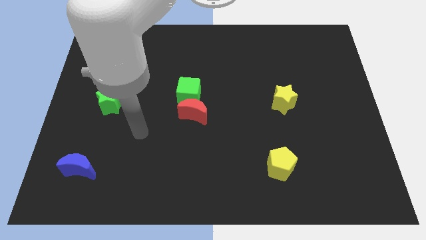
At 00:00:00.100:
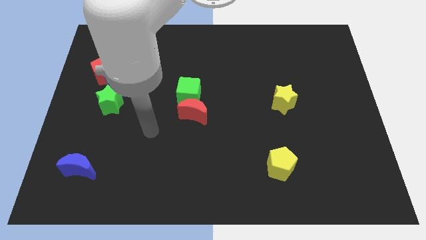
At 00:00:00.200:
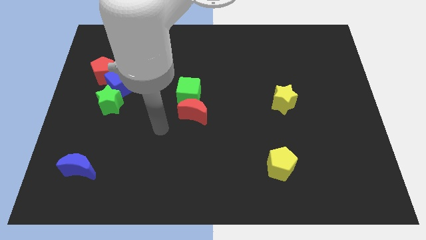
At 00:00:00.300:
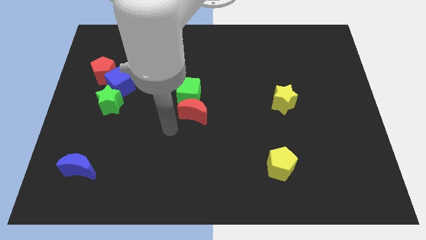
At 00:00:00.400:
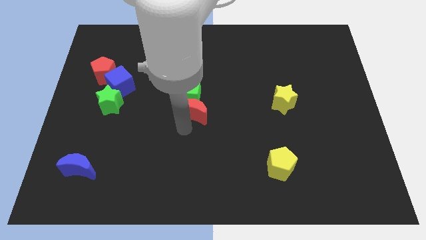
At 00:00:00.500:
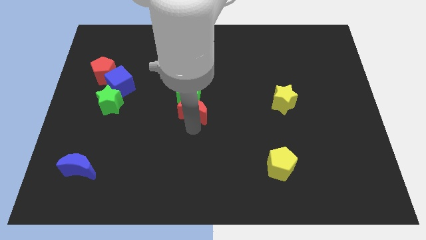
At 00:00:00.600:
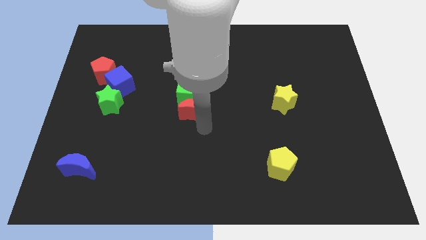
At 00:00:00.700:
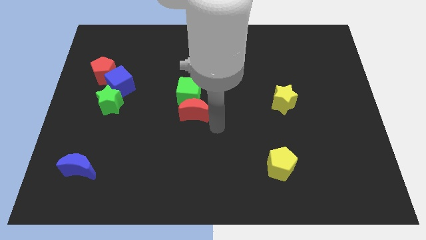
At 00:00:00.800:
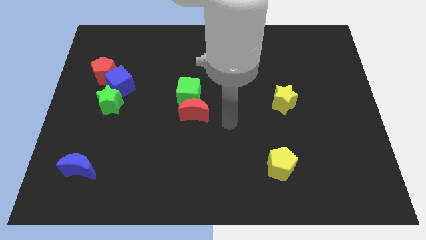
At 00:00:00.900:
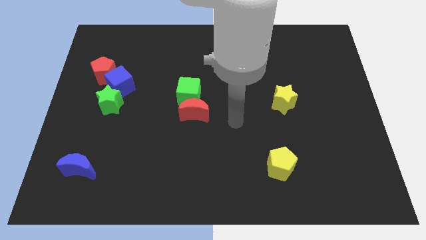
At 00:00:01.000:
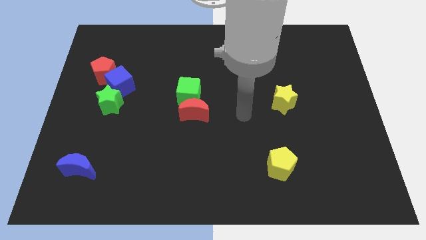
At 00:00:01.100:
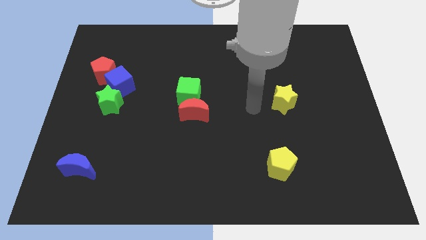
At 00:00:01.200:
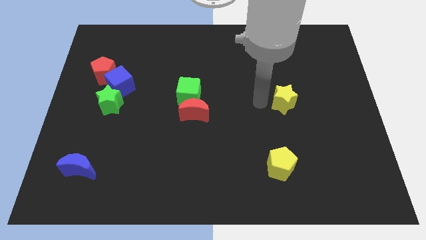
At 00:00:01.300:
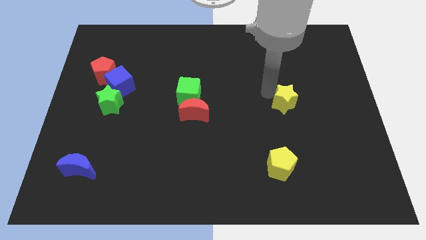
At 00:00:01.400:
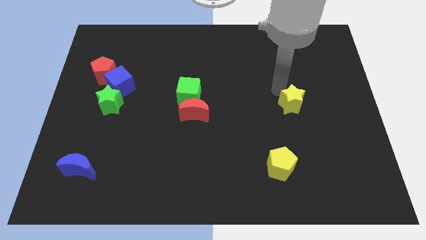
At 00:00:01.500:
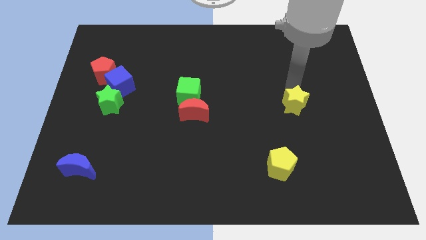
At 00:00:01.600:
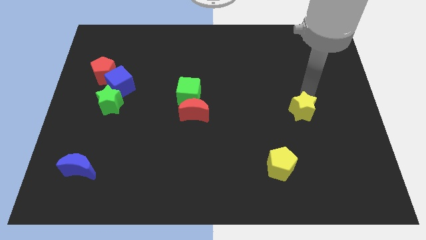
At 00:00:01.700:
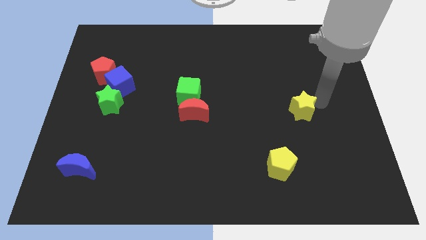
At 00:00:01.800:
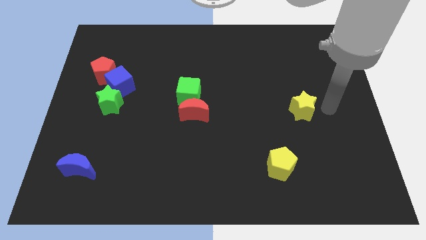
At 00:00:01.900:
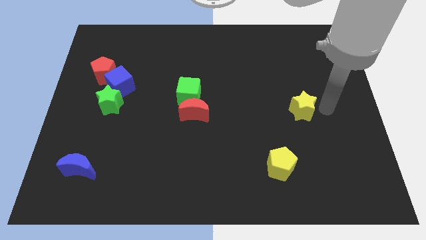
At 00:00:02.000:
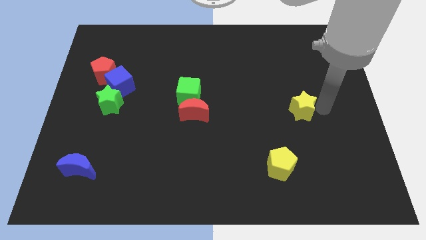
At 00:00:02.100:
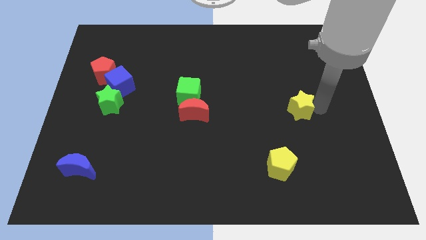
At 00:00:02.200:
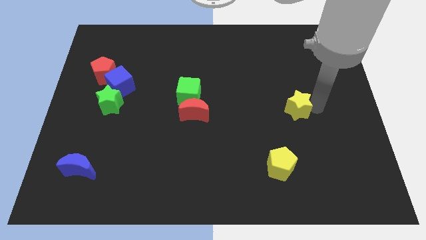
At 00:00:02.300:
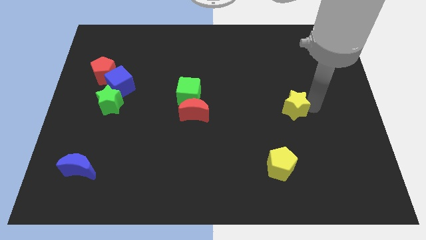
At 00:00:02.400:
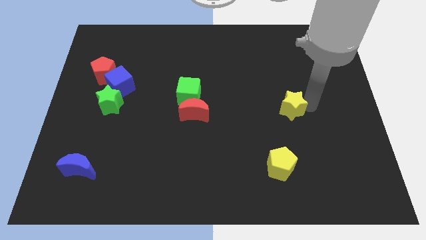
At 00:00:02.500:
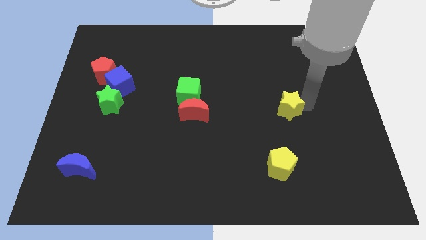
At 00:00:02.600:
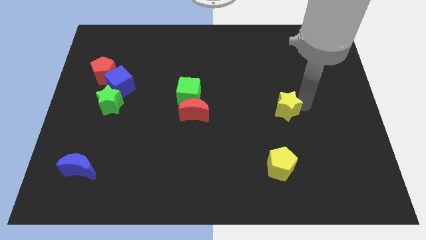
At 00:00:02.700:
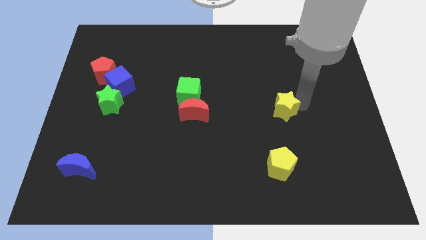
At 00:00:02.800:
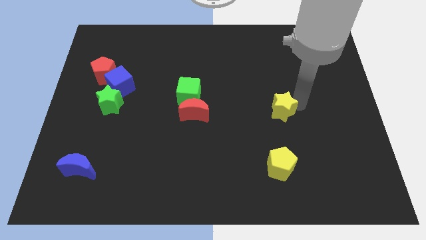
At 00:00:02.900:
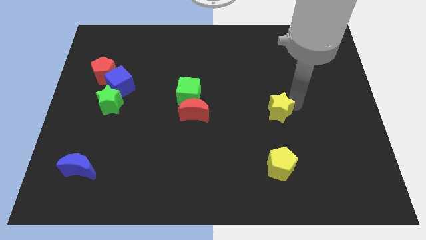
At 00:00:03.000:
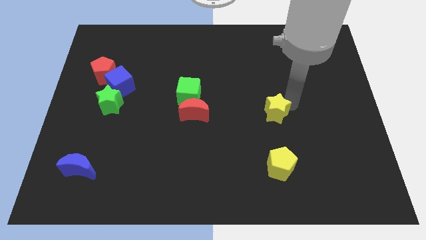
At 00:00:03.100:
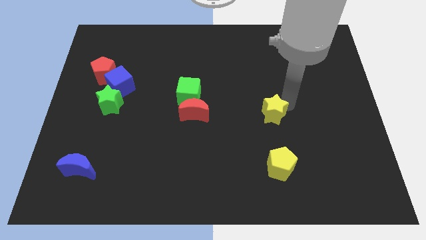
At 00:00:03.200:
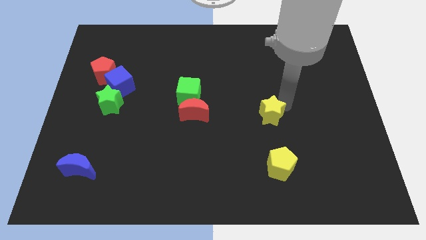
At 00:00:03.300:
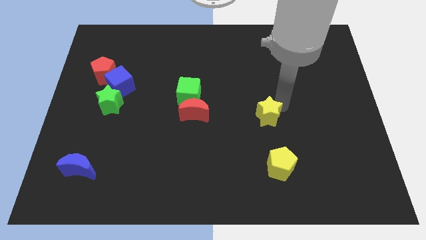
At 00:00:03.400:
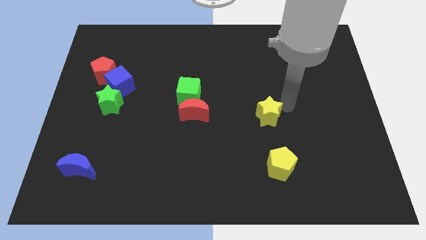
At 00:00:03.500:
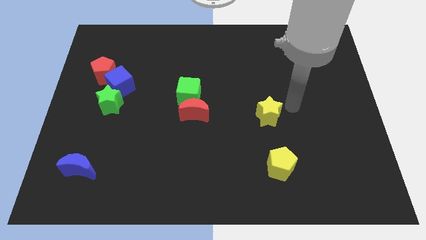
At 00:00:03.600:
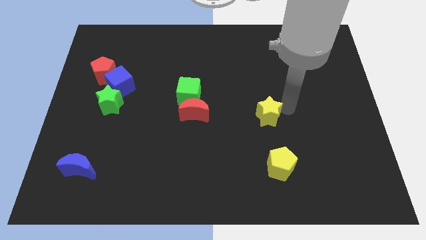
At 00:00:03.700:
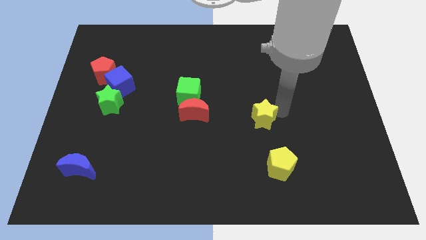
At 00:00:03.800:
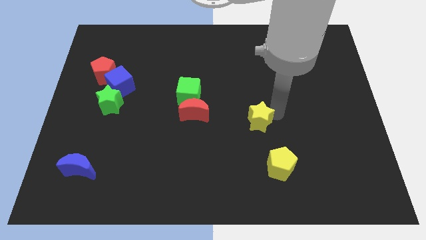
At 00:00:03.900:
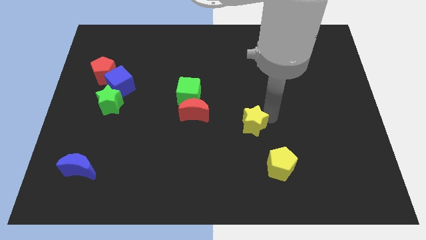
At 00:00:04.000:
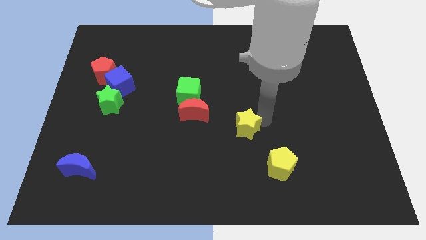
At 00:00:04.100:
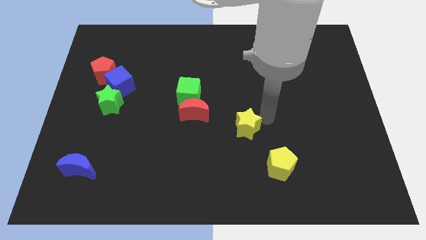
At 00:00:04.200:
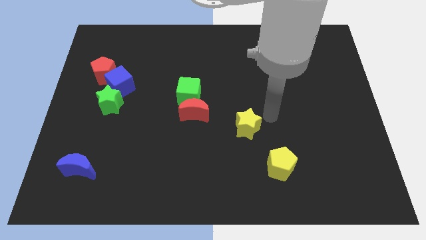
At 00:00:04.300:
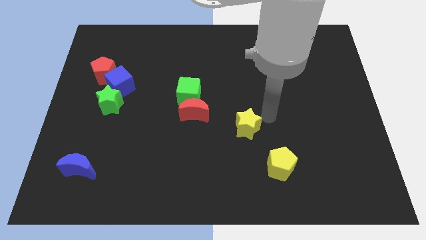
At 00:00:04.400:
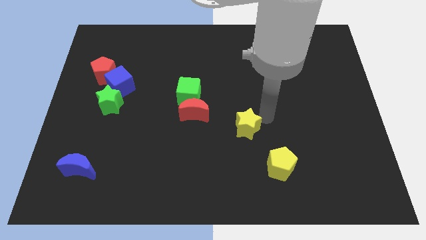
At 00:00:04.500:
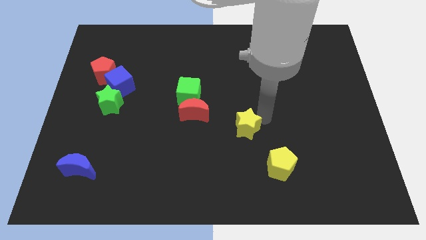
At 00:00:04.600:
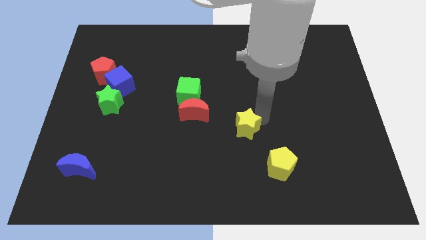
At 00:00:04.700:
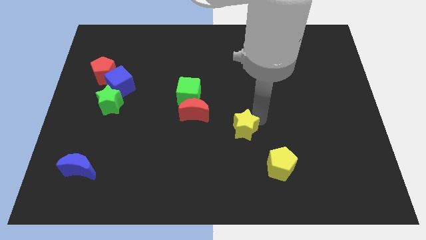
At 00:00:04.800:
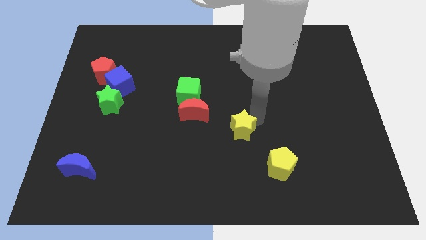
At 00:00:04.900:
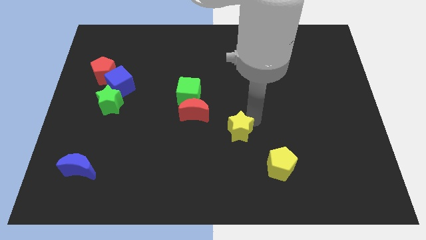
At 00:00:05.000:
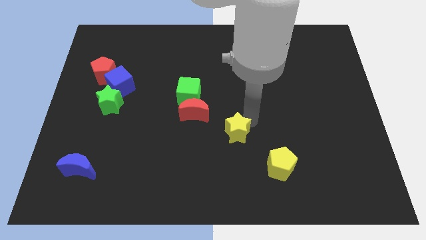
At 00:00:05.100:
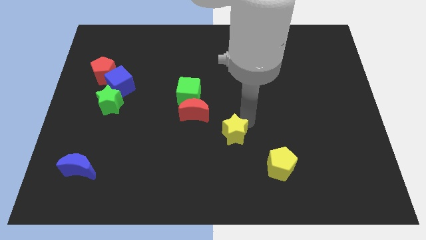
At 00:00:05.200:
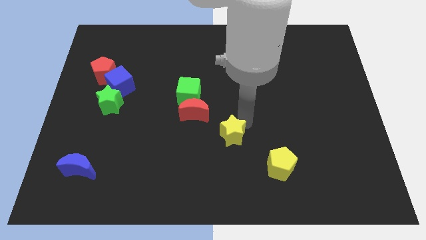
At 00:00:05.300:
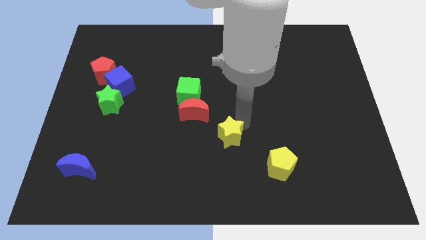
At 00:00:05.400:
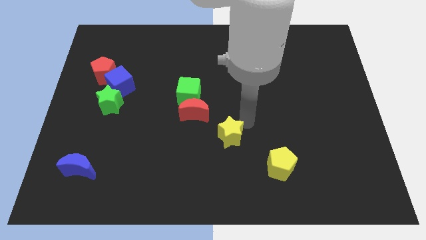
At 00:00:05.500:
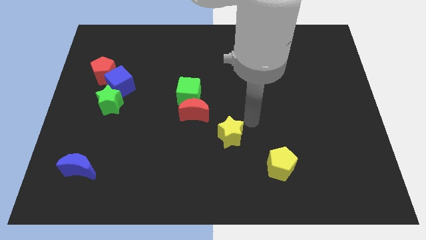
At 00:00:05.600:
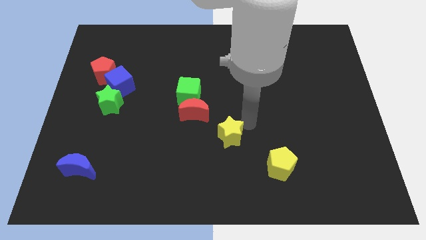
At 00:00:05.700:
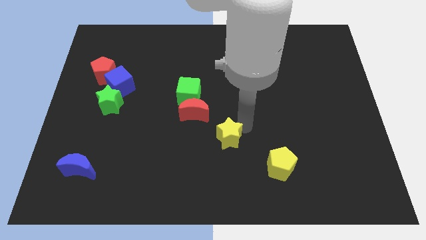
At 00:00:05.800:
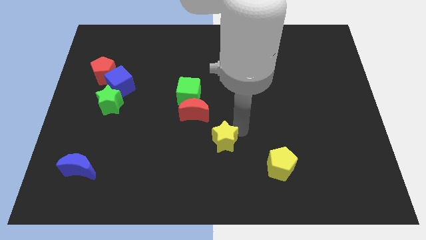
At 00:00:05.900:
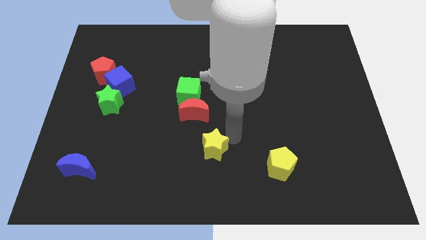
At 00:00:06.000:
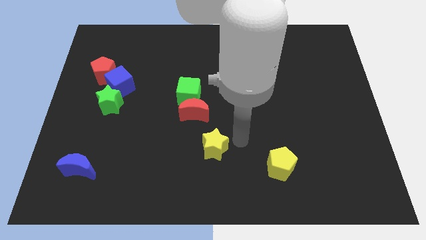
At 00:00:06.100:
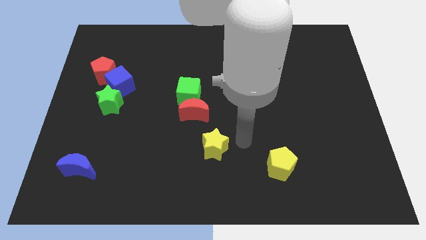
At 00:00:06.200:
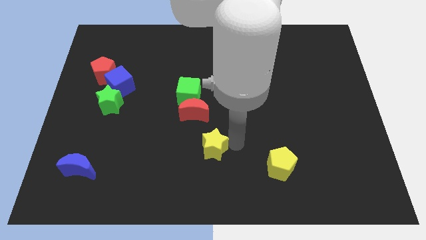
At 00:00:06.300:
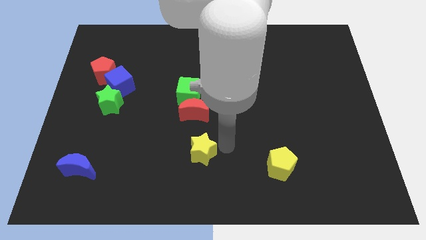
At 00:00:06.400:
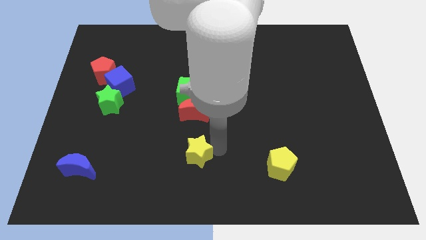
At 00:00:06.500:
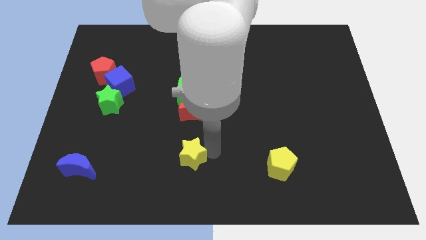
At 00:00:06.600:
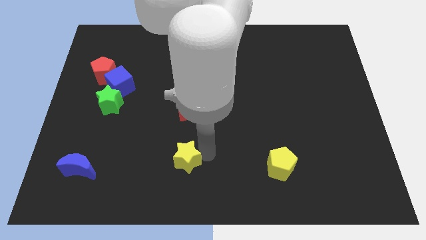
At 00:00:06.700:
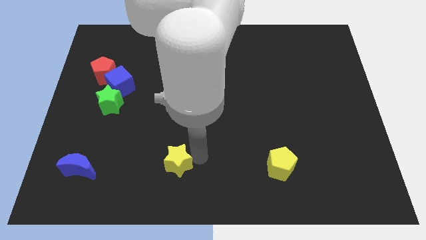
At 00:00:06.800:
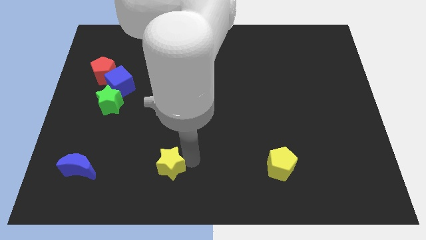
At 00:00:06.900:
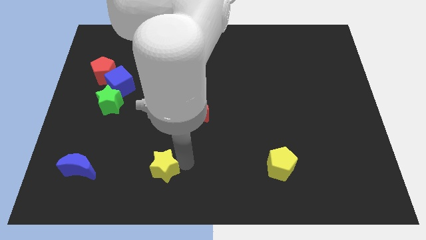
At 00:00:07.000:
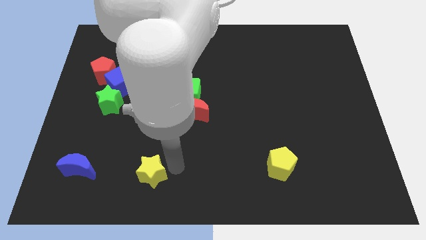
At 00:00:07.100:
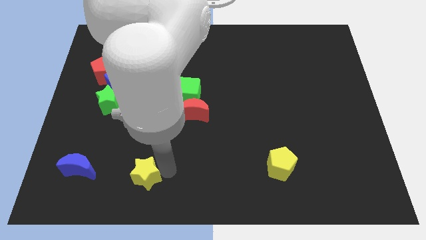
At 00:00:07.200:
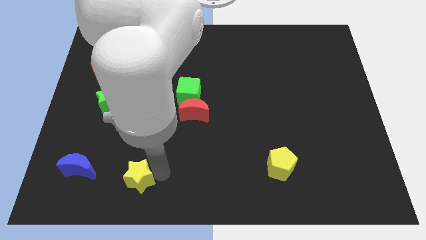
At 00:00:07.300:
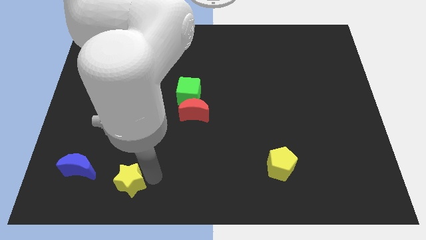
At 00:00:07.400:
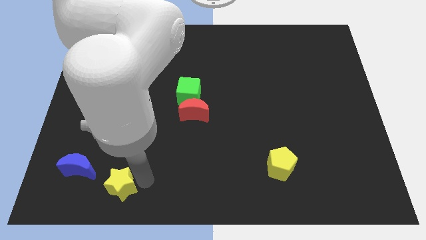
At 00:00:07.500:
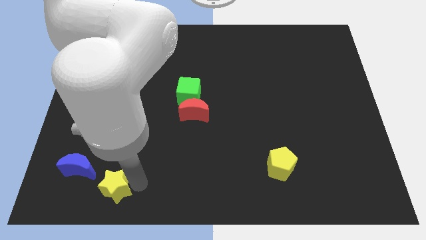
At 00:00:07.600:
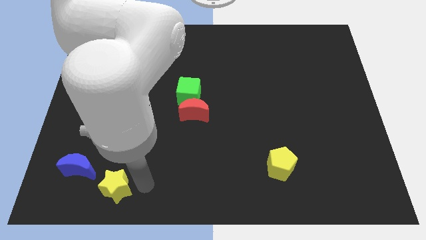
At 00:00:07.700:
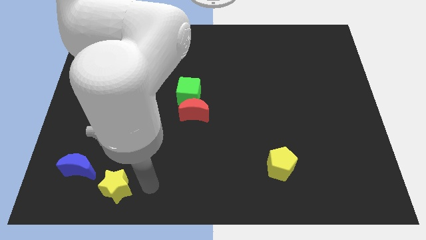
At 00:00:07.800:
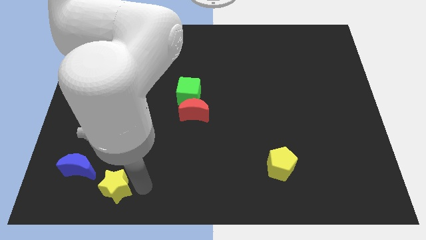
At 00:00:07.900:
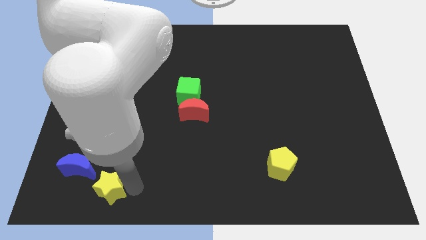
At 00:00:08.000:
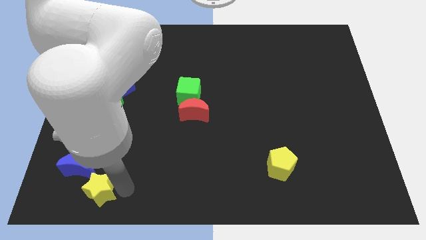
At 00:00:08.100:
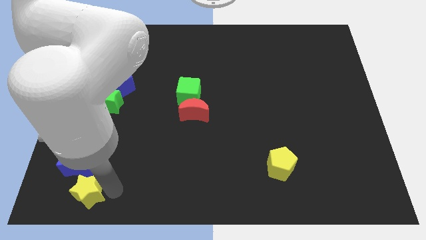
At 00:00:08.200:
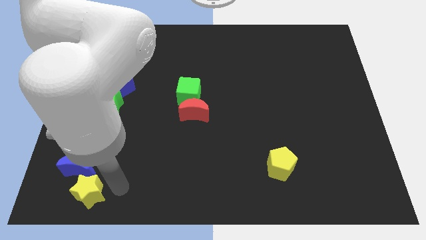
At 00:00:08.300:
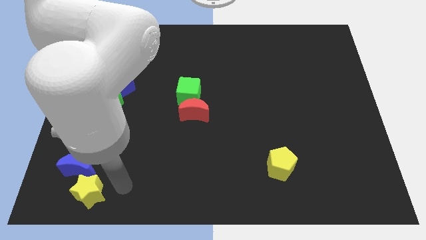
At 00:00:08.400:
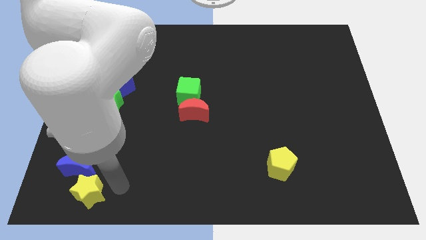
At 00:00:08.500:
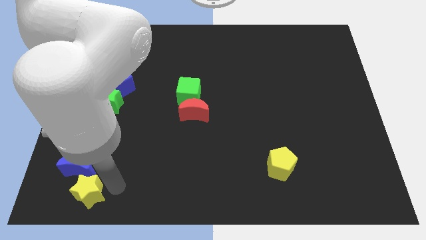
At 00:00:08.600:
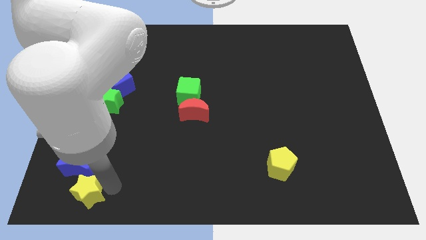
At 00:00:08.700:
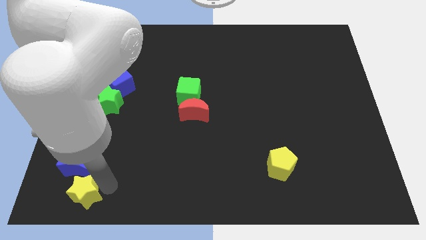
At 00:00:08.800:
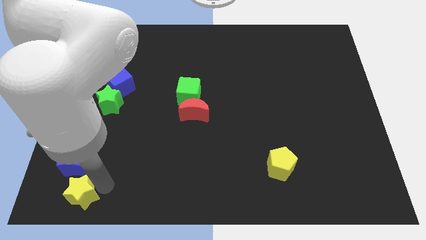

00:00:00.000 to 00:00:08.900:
push the yellow star to the lower left corner
